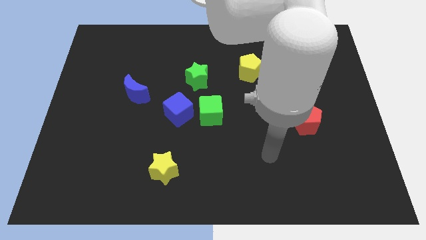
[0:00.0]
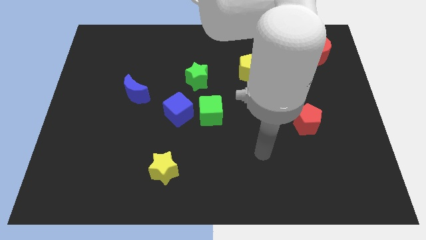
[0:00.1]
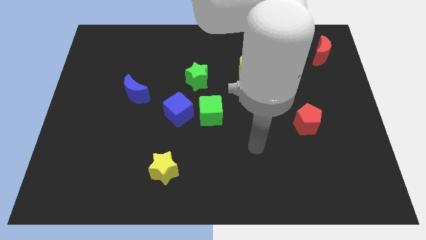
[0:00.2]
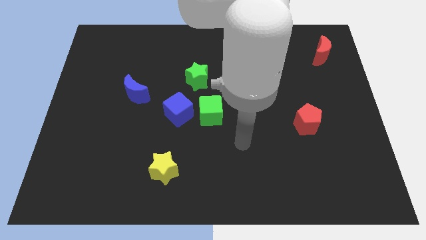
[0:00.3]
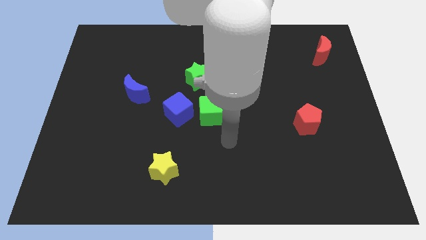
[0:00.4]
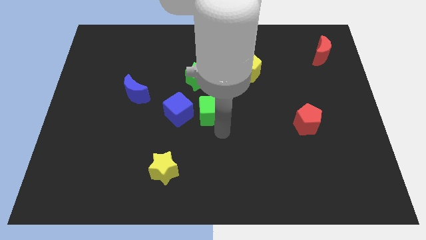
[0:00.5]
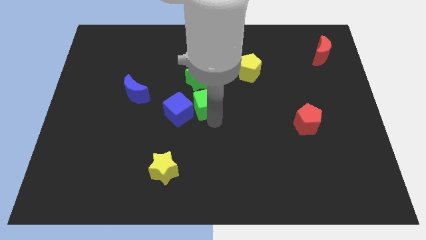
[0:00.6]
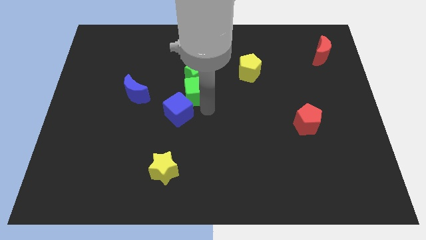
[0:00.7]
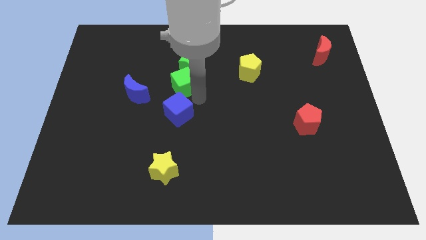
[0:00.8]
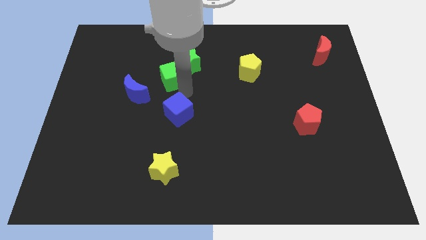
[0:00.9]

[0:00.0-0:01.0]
move the blue cube away from the green cube

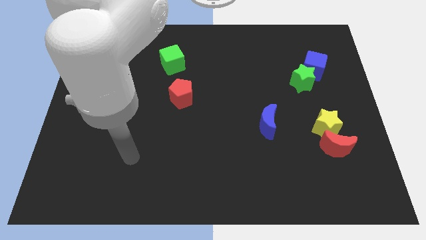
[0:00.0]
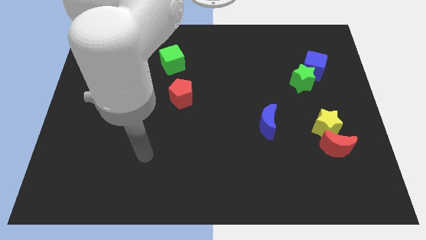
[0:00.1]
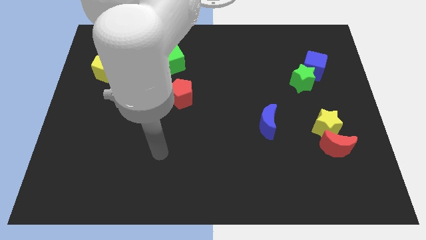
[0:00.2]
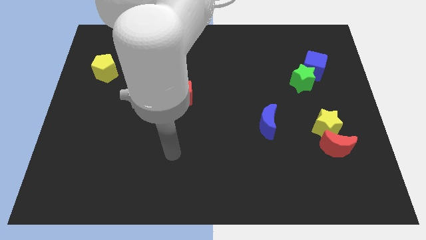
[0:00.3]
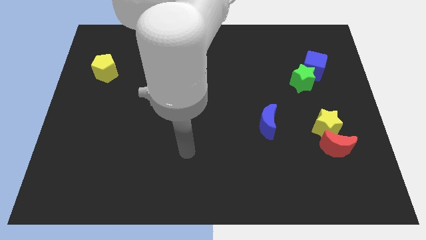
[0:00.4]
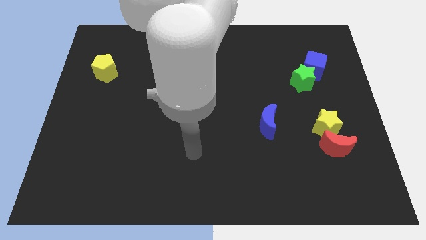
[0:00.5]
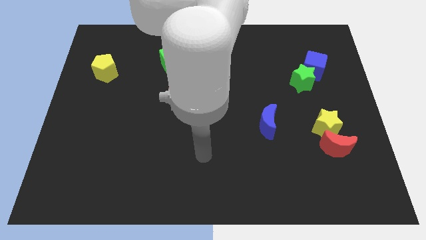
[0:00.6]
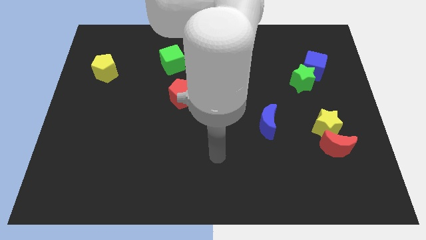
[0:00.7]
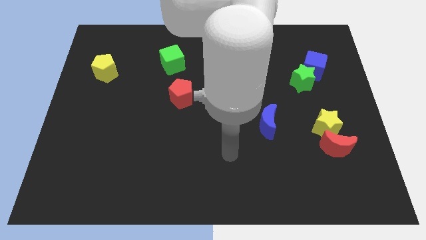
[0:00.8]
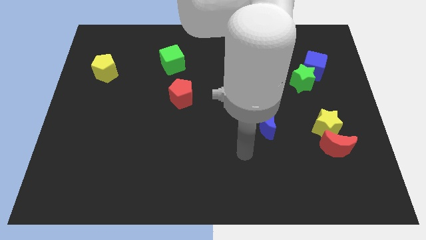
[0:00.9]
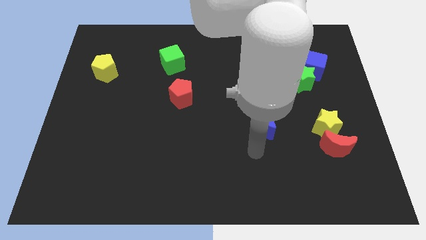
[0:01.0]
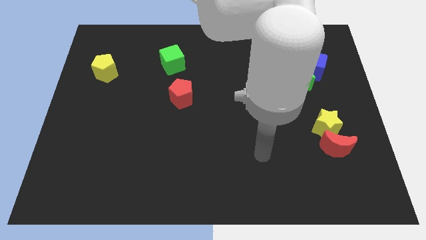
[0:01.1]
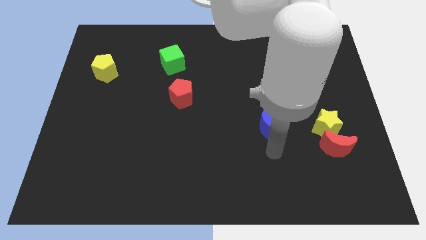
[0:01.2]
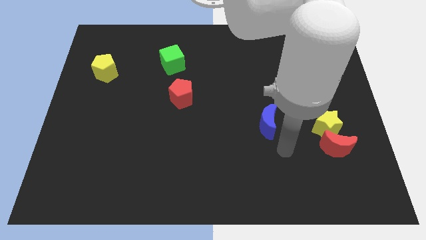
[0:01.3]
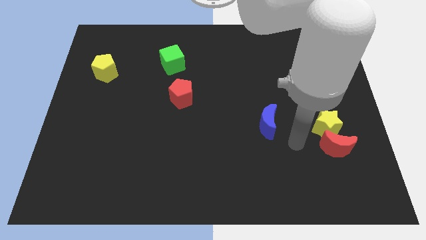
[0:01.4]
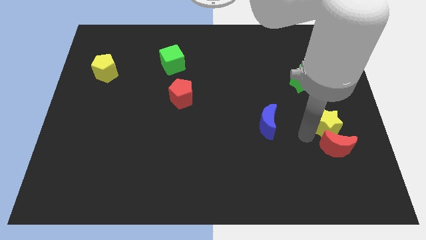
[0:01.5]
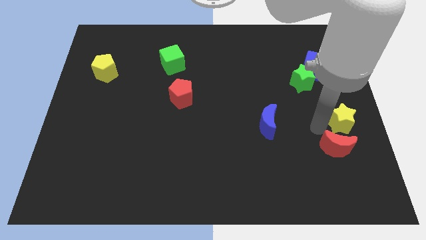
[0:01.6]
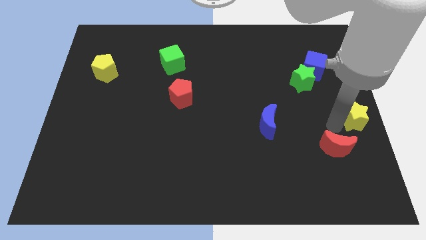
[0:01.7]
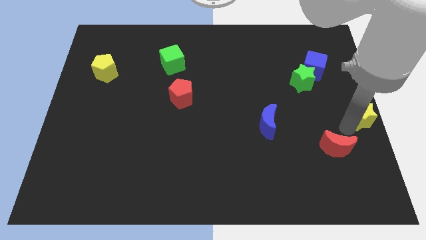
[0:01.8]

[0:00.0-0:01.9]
separate the red moon from the yellow star

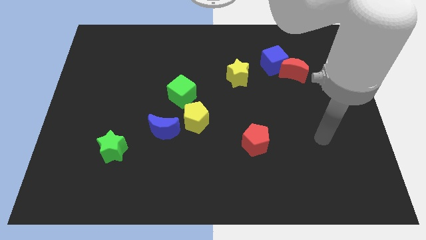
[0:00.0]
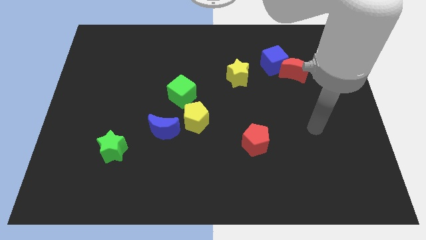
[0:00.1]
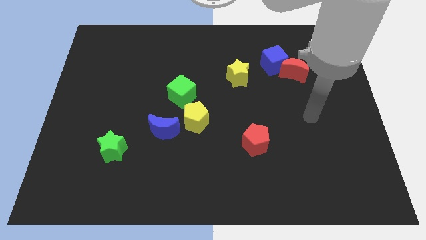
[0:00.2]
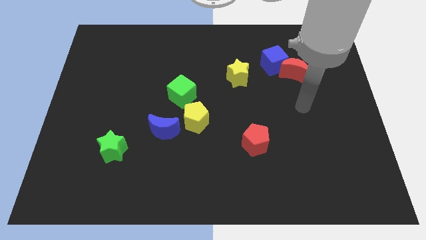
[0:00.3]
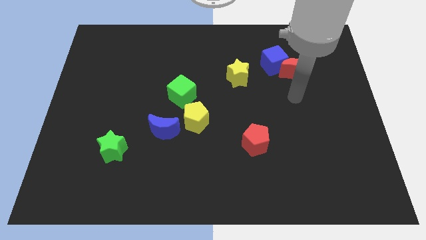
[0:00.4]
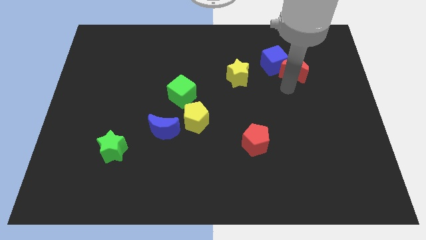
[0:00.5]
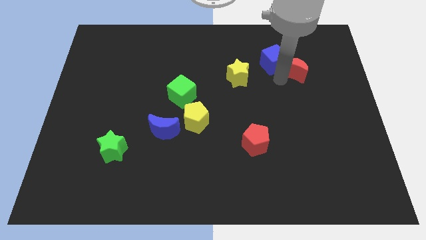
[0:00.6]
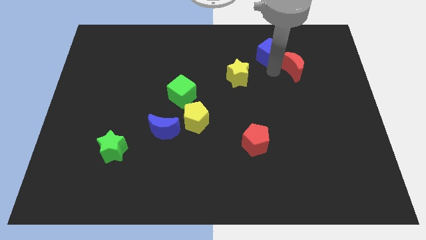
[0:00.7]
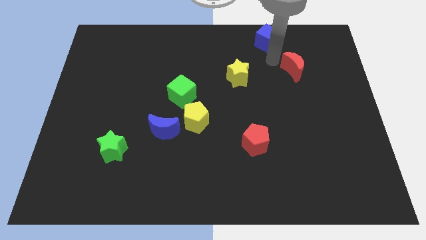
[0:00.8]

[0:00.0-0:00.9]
move the red moon away from the blue cube

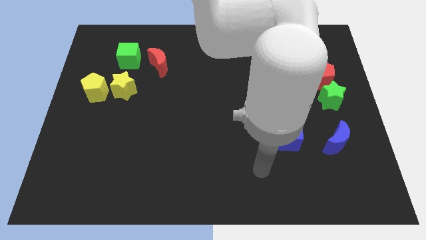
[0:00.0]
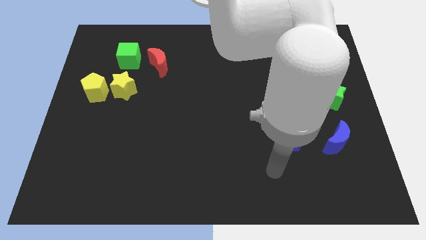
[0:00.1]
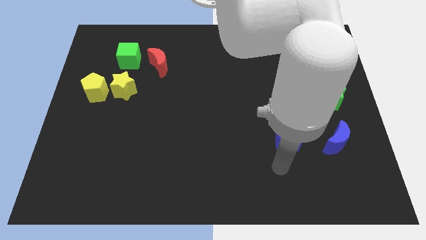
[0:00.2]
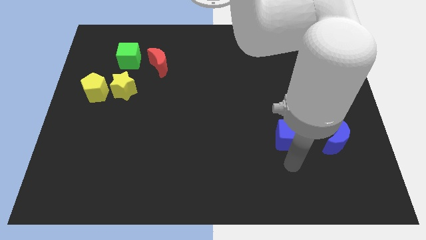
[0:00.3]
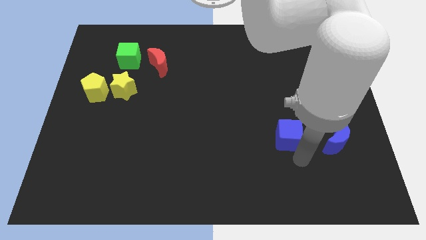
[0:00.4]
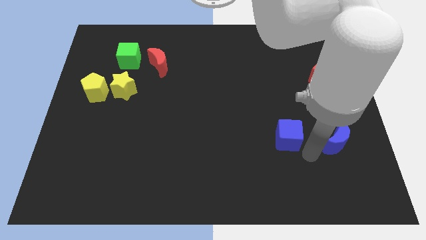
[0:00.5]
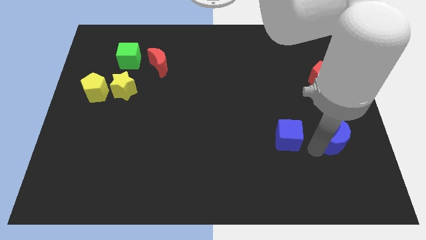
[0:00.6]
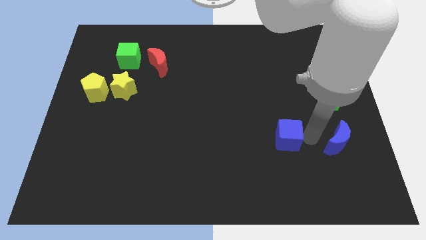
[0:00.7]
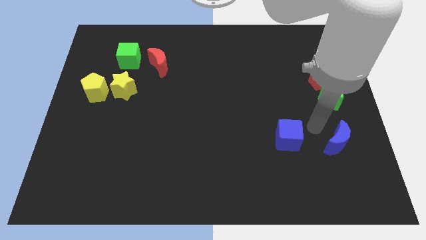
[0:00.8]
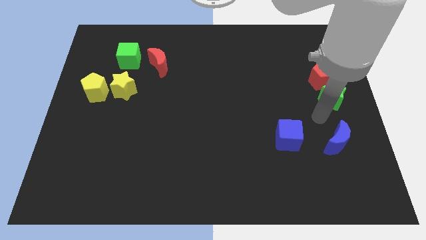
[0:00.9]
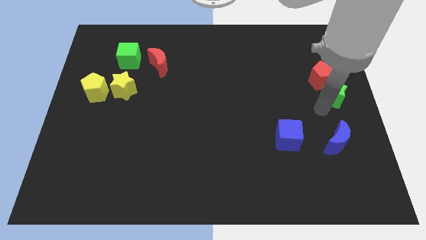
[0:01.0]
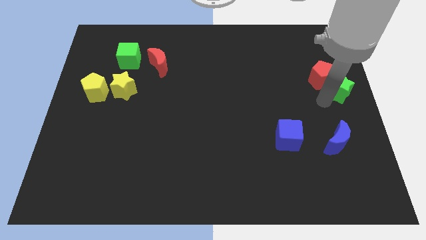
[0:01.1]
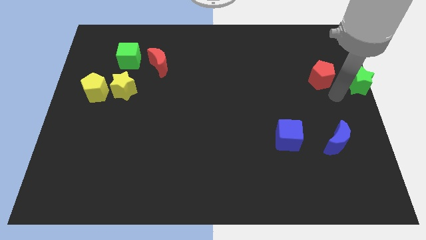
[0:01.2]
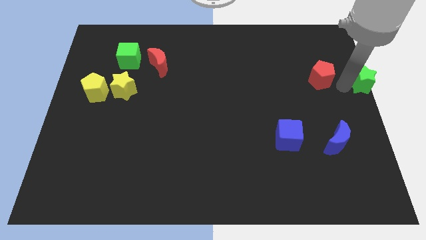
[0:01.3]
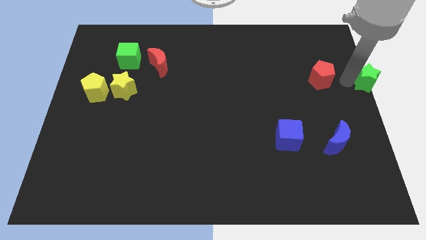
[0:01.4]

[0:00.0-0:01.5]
move the red pentagon away from the green star

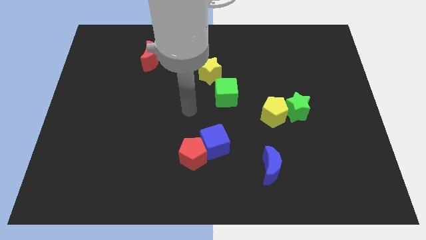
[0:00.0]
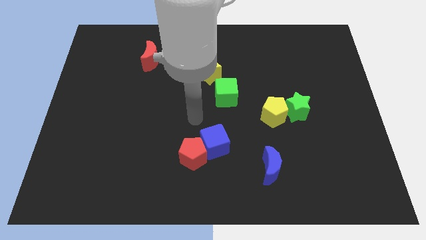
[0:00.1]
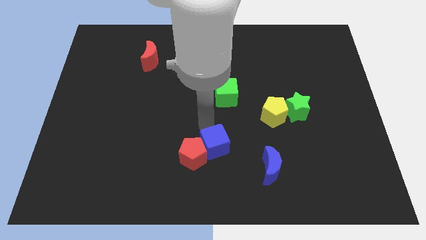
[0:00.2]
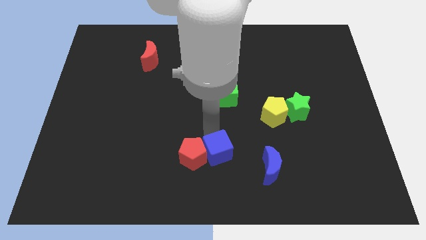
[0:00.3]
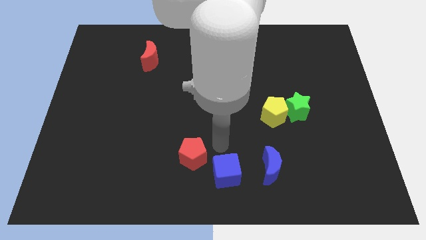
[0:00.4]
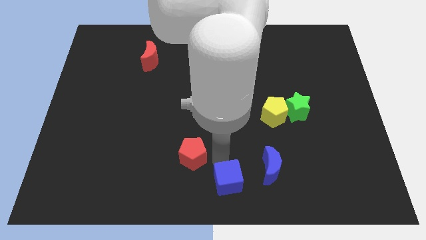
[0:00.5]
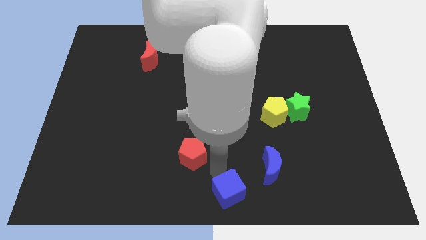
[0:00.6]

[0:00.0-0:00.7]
move the red pentagon away from the blue cube

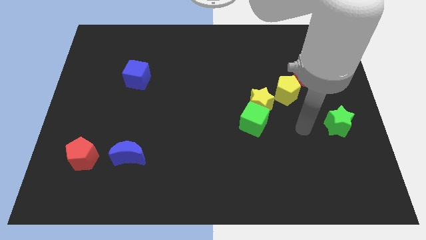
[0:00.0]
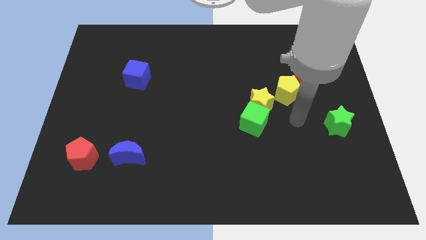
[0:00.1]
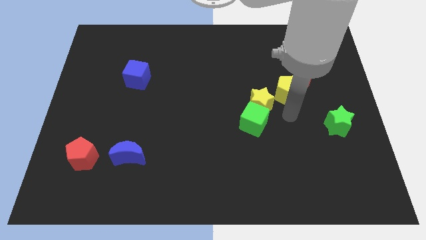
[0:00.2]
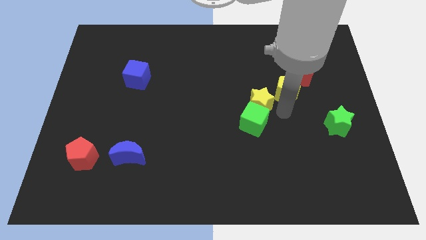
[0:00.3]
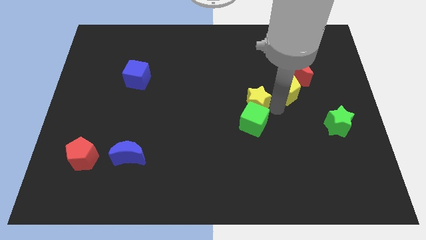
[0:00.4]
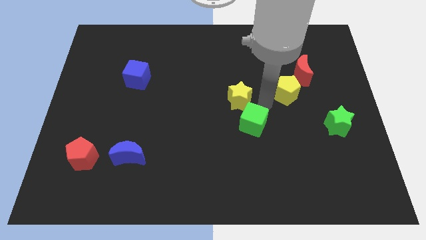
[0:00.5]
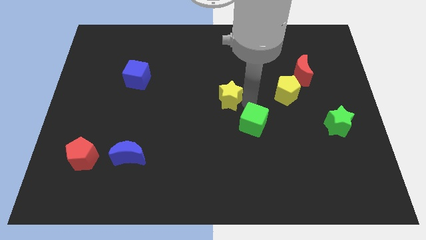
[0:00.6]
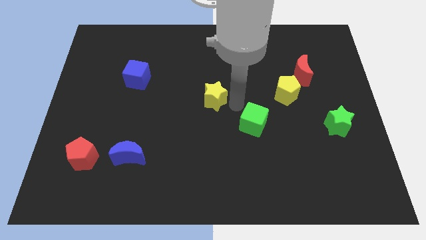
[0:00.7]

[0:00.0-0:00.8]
pull the green cube apart from the yellow star

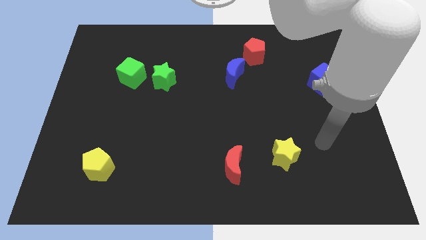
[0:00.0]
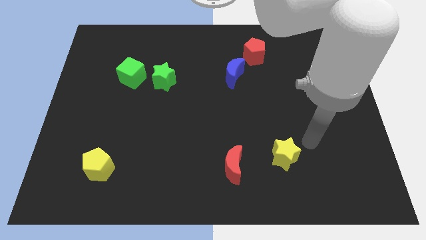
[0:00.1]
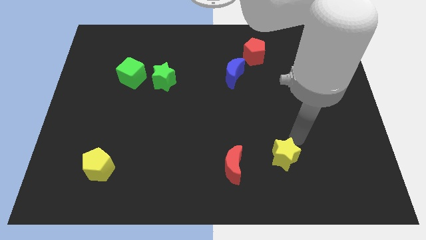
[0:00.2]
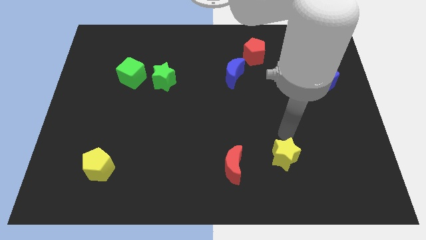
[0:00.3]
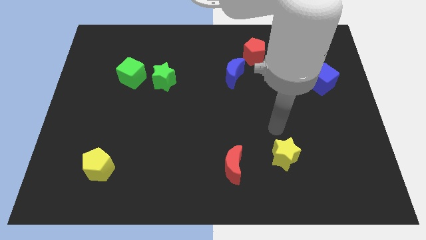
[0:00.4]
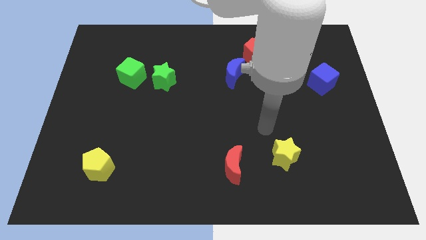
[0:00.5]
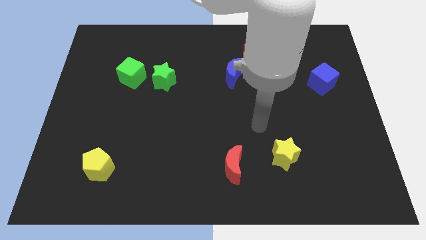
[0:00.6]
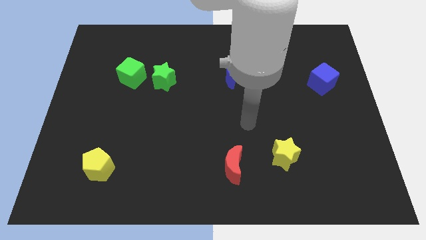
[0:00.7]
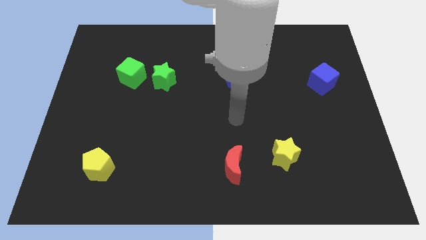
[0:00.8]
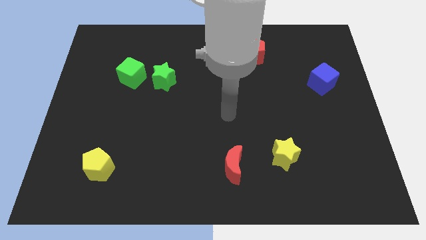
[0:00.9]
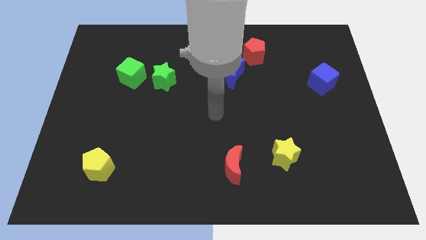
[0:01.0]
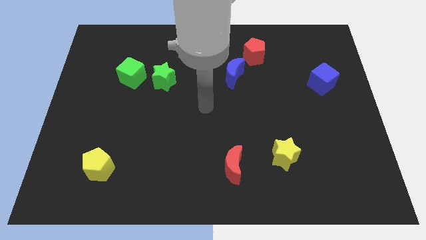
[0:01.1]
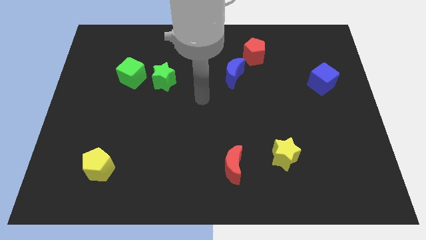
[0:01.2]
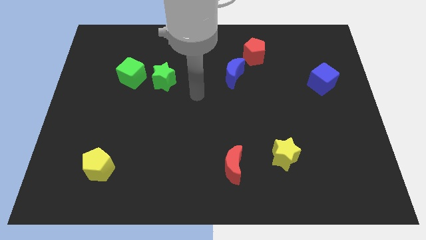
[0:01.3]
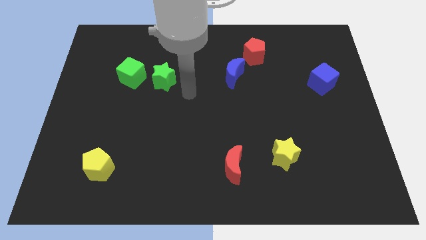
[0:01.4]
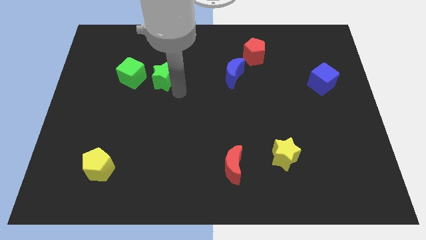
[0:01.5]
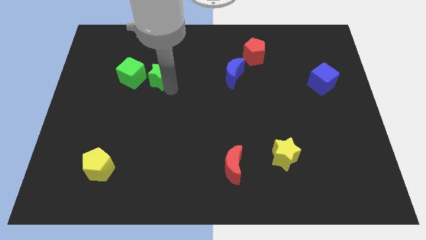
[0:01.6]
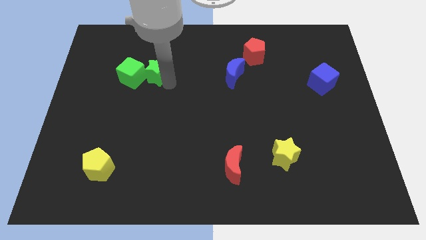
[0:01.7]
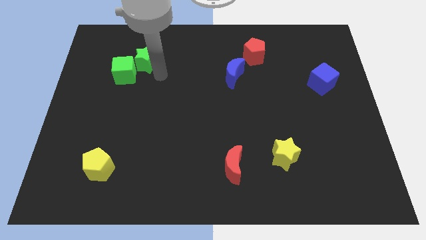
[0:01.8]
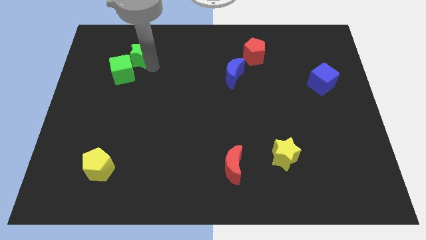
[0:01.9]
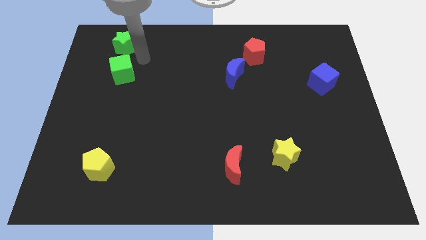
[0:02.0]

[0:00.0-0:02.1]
pull the green cube apart from the green star

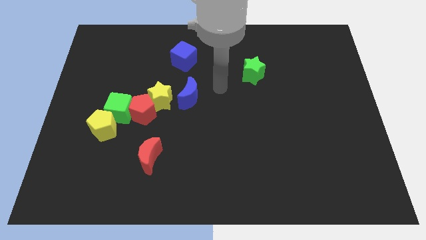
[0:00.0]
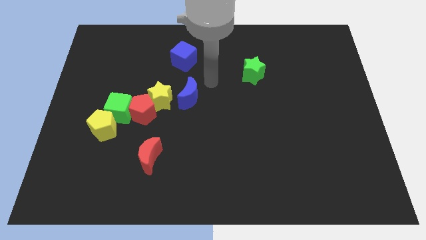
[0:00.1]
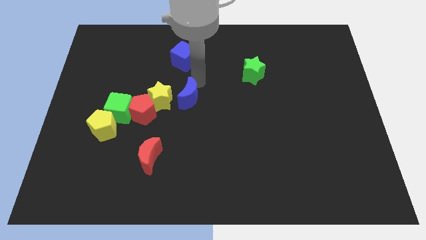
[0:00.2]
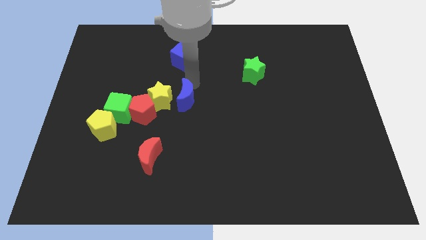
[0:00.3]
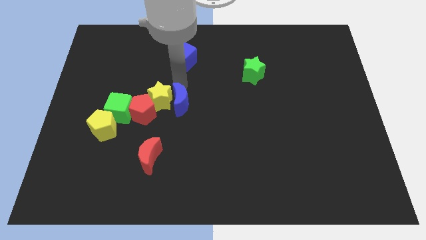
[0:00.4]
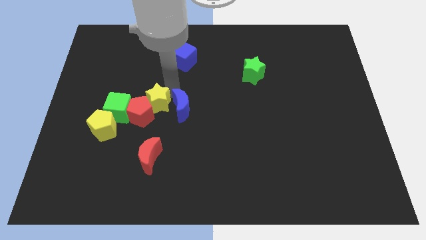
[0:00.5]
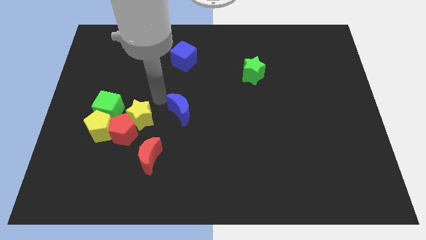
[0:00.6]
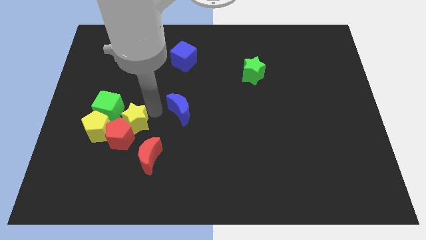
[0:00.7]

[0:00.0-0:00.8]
separate the blue moon from the yellow star
